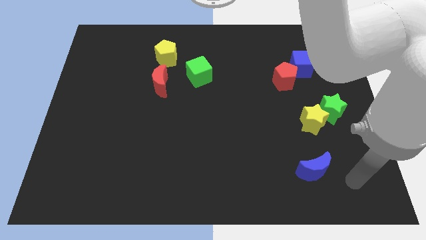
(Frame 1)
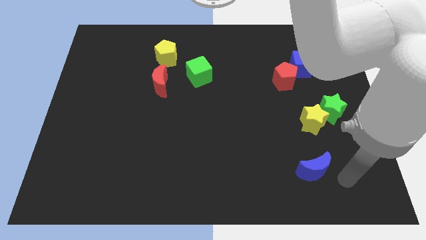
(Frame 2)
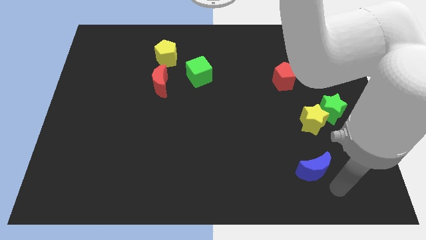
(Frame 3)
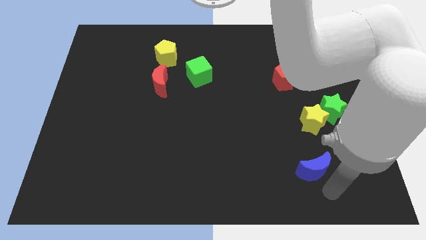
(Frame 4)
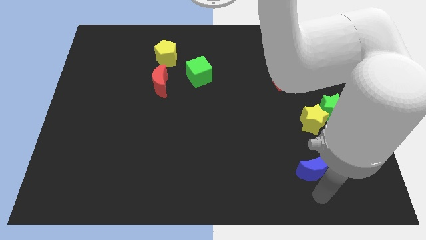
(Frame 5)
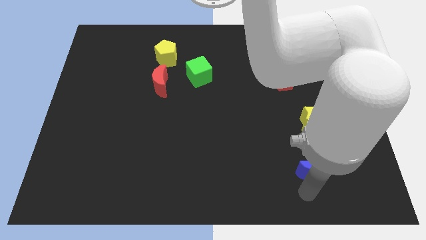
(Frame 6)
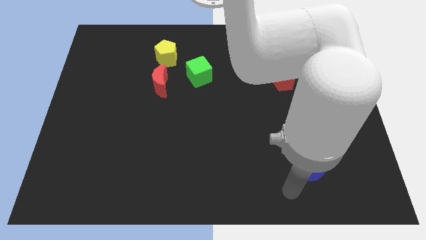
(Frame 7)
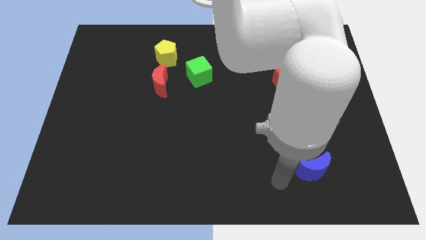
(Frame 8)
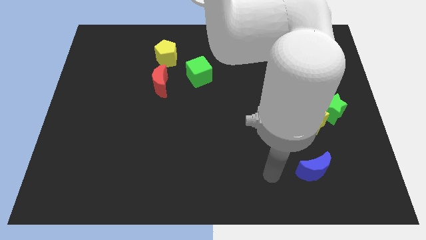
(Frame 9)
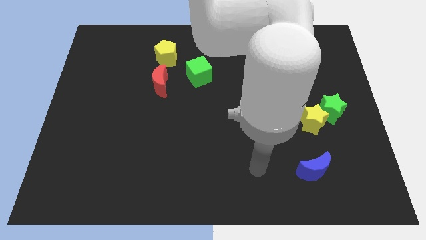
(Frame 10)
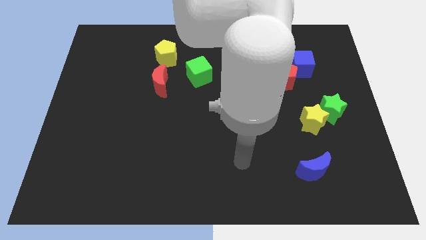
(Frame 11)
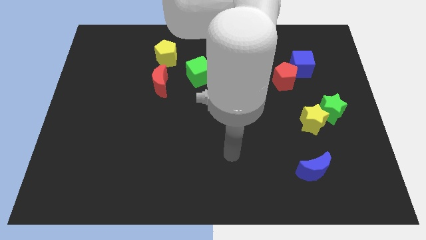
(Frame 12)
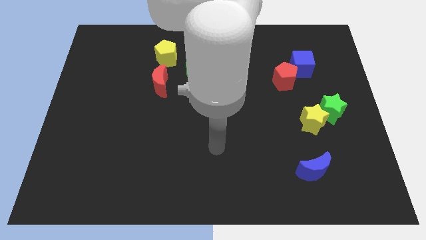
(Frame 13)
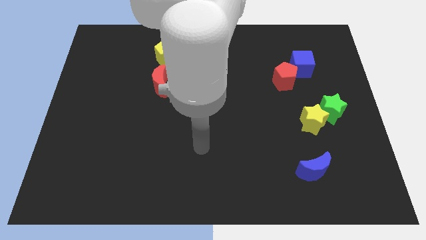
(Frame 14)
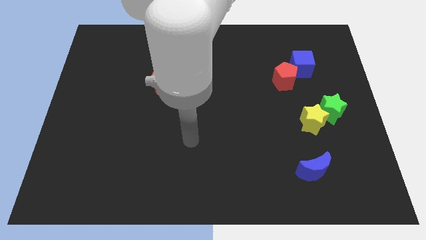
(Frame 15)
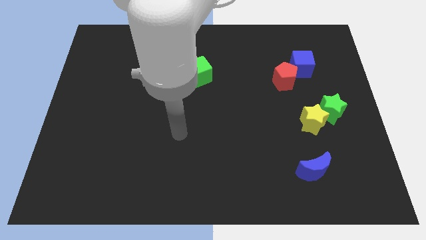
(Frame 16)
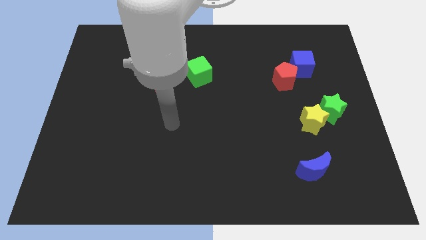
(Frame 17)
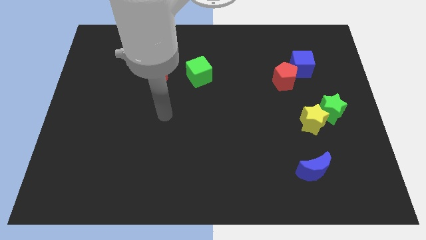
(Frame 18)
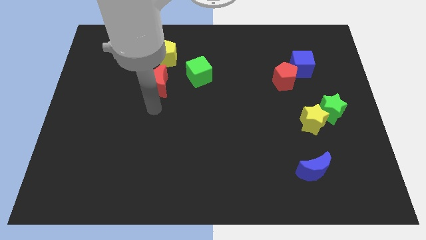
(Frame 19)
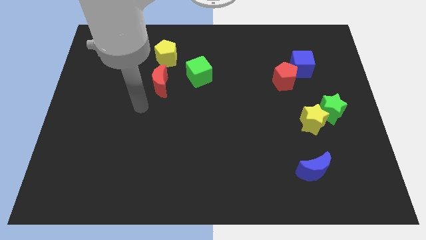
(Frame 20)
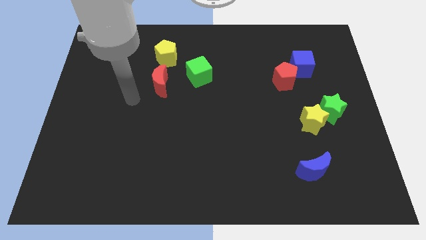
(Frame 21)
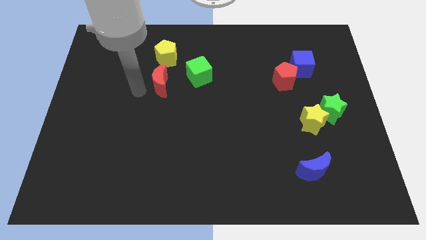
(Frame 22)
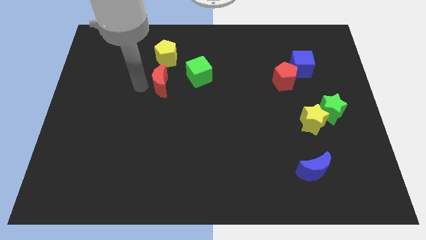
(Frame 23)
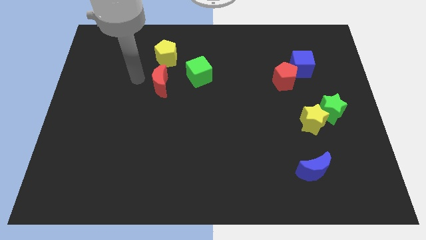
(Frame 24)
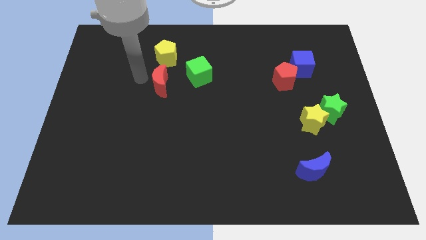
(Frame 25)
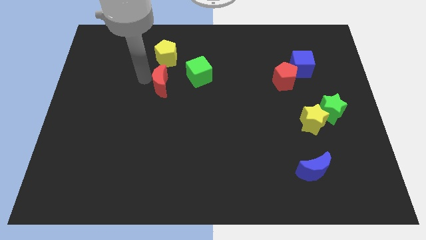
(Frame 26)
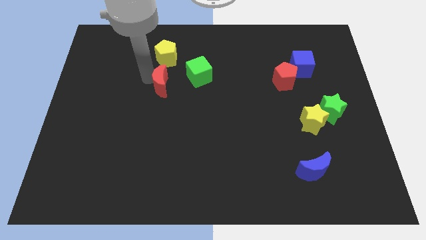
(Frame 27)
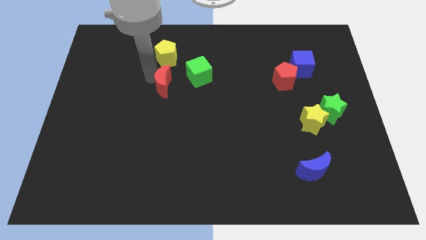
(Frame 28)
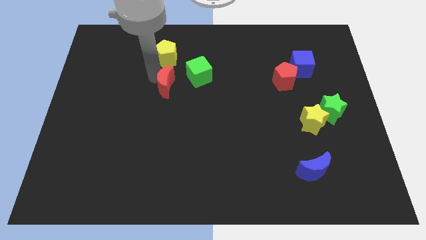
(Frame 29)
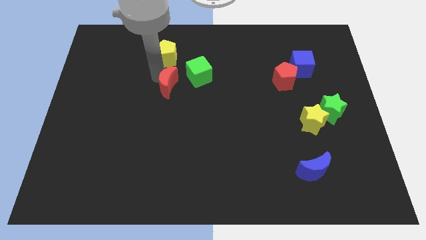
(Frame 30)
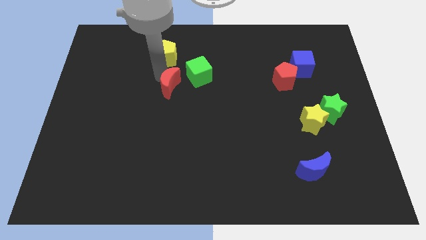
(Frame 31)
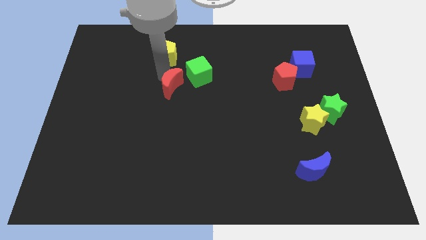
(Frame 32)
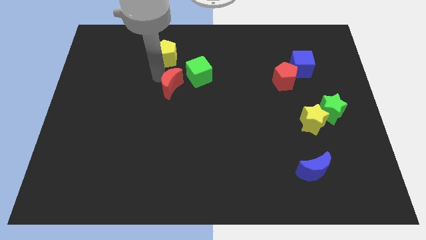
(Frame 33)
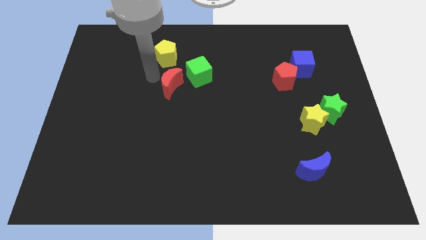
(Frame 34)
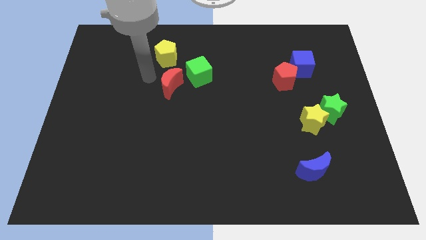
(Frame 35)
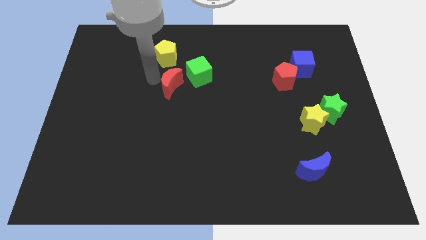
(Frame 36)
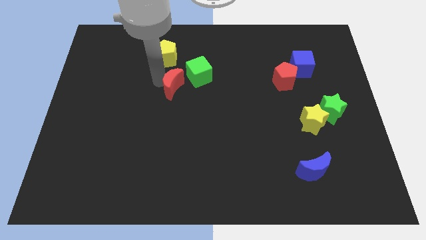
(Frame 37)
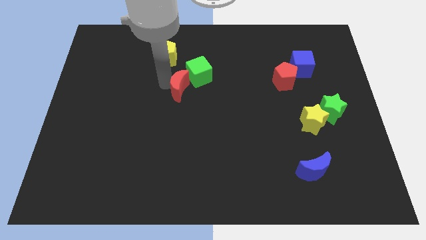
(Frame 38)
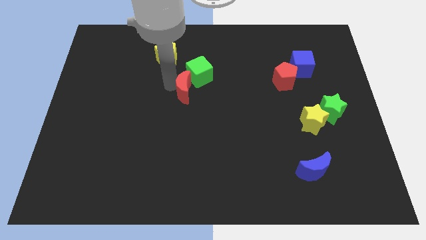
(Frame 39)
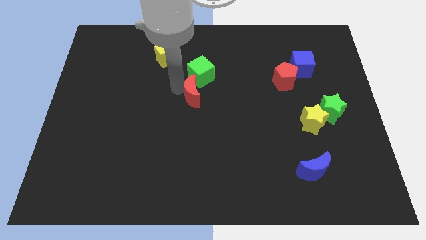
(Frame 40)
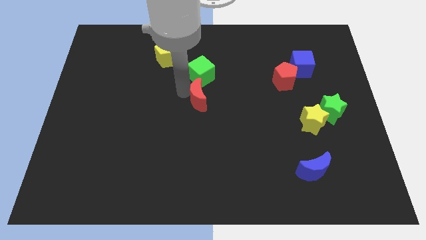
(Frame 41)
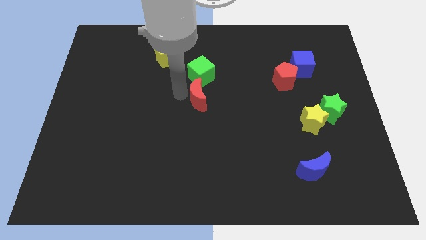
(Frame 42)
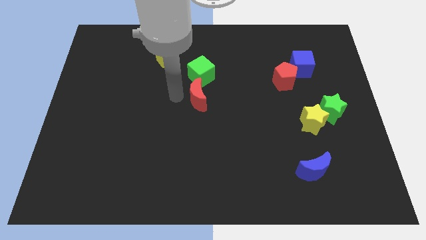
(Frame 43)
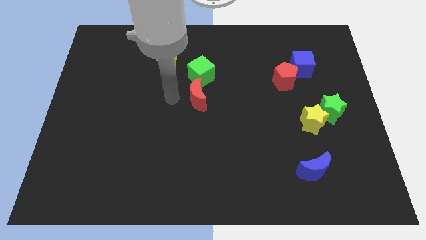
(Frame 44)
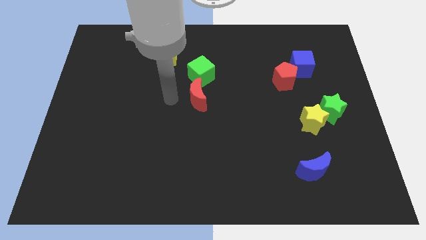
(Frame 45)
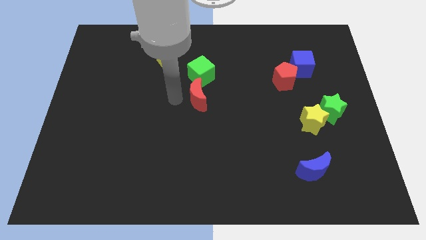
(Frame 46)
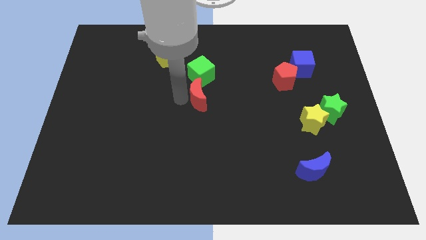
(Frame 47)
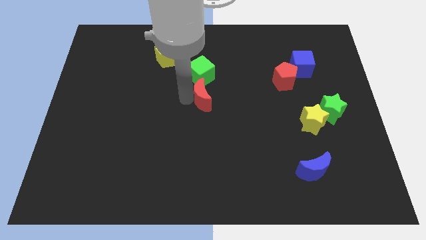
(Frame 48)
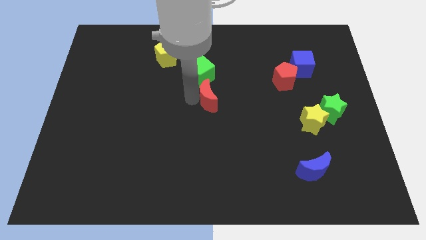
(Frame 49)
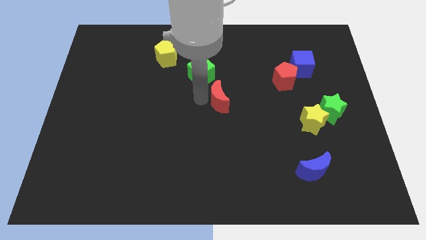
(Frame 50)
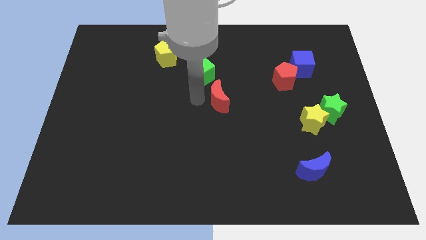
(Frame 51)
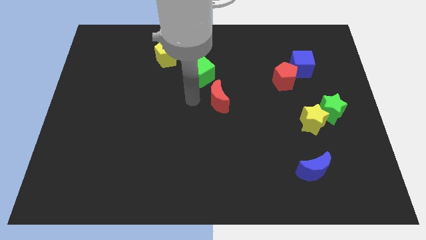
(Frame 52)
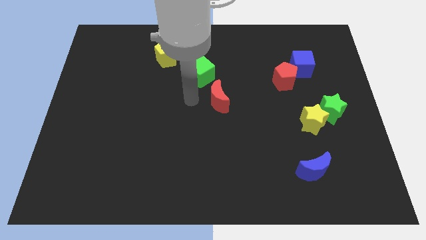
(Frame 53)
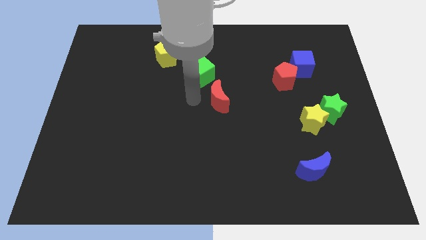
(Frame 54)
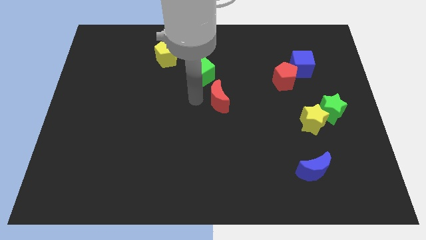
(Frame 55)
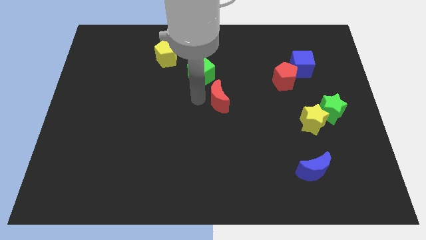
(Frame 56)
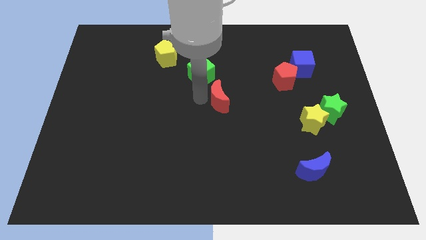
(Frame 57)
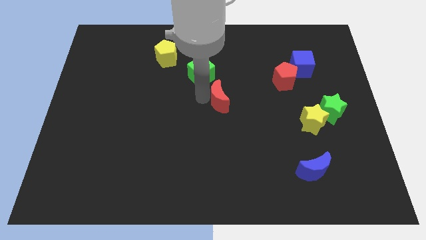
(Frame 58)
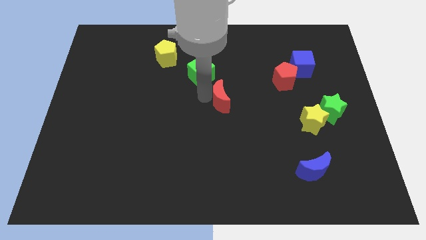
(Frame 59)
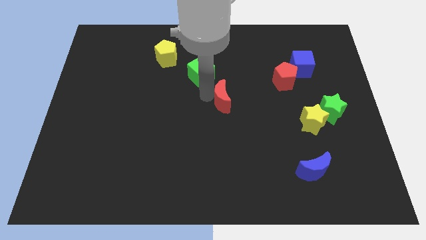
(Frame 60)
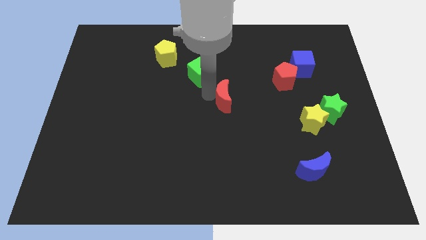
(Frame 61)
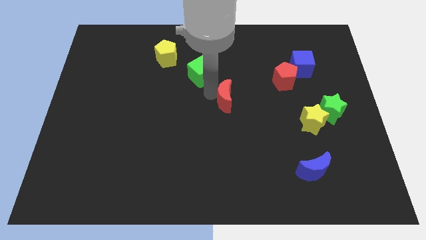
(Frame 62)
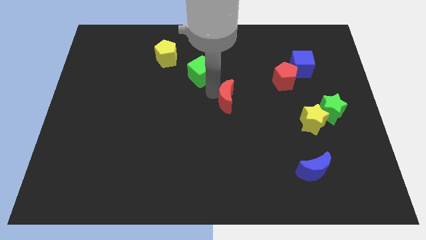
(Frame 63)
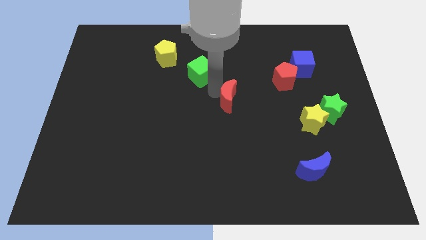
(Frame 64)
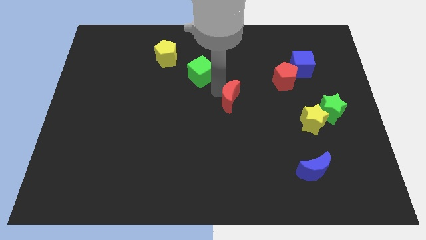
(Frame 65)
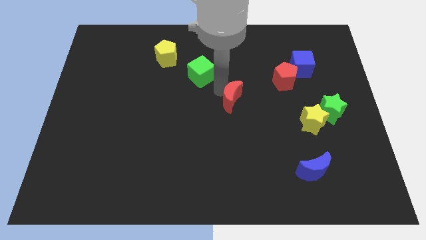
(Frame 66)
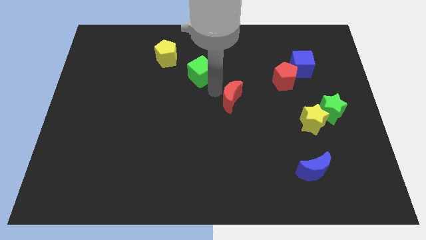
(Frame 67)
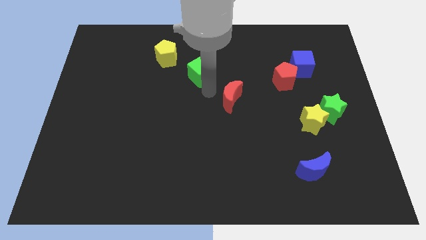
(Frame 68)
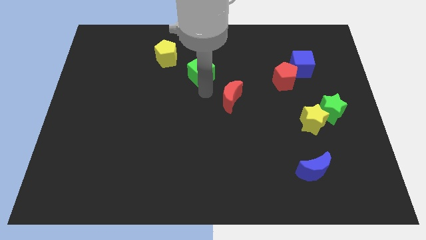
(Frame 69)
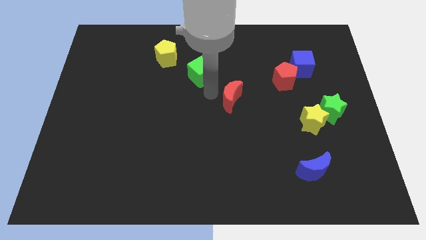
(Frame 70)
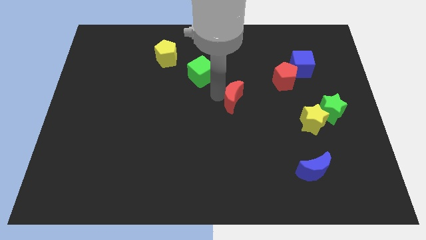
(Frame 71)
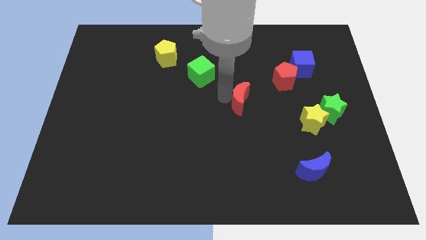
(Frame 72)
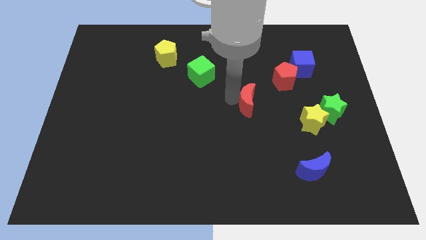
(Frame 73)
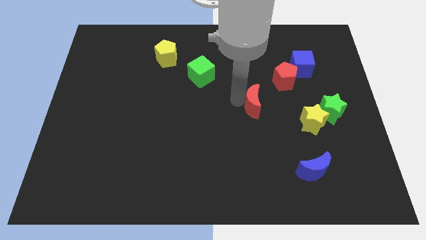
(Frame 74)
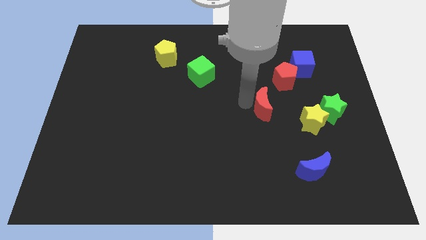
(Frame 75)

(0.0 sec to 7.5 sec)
slide the red moon to the left side of the green star

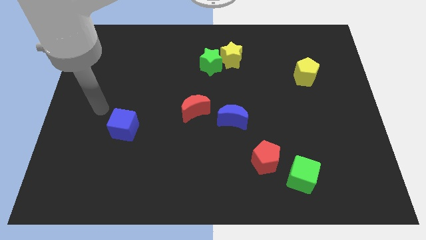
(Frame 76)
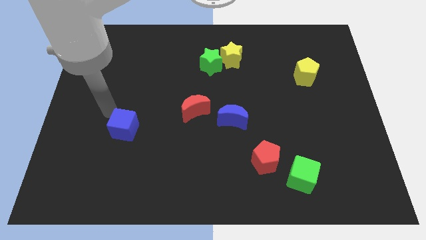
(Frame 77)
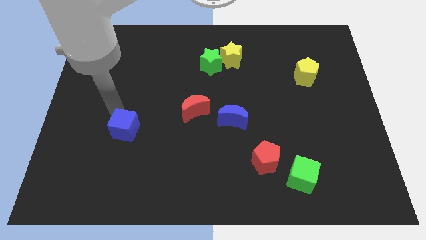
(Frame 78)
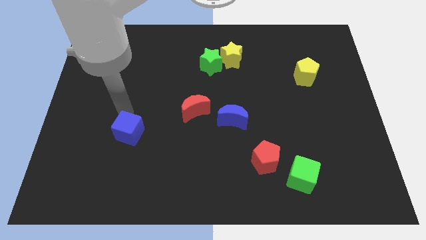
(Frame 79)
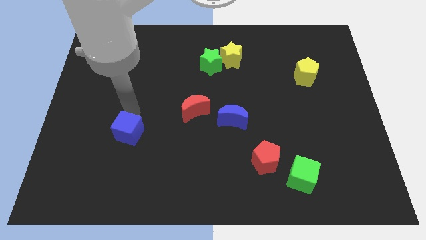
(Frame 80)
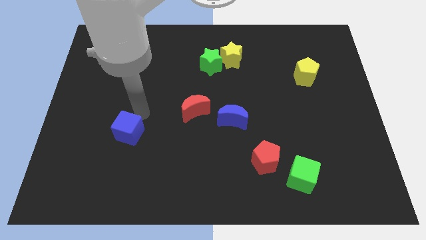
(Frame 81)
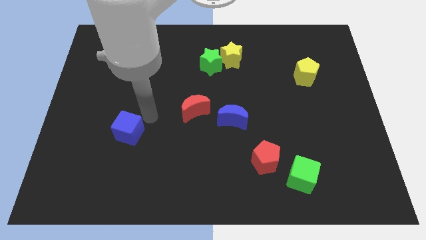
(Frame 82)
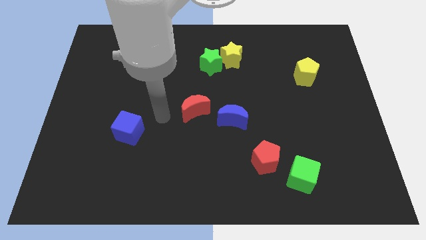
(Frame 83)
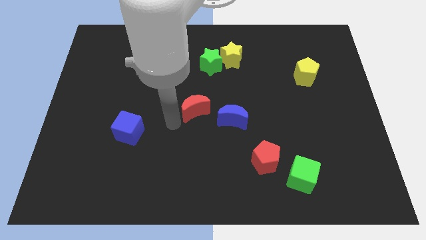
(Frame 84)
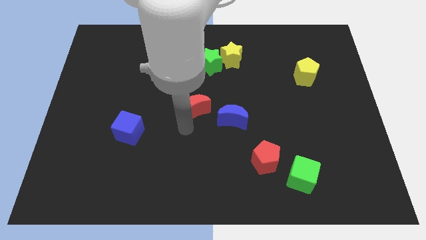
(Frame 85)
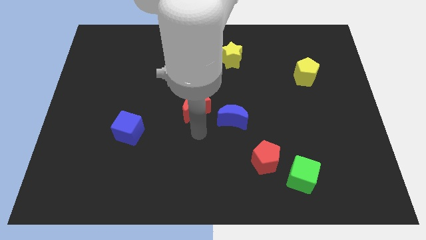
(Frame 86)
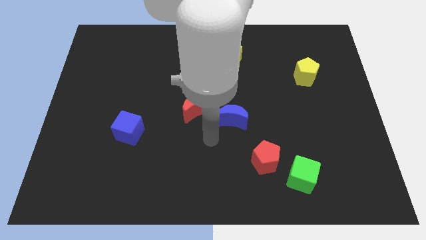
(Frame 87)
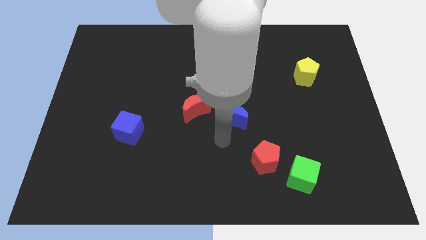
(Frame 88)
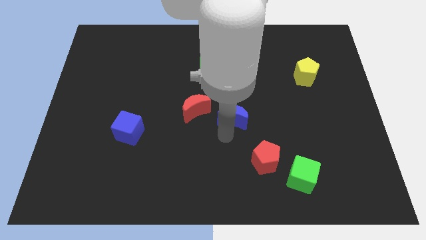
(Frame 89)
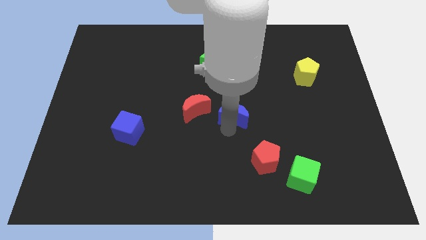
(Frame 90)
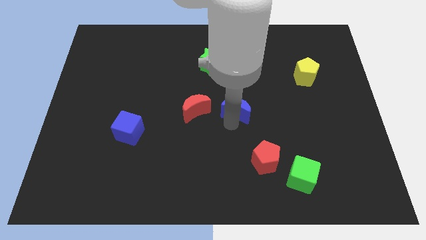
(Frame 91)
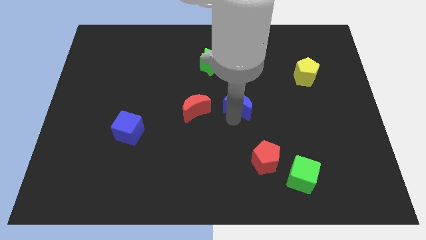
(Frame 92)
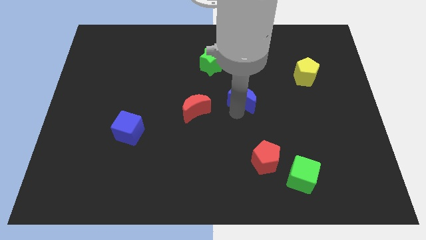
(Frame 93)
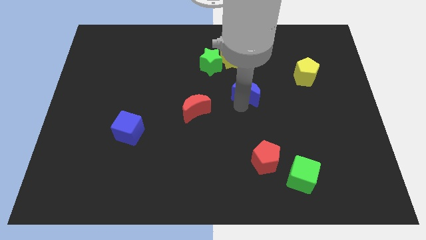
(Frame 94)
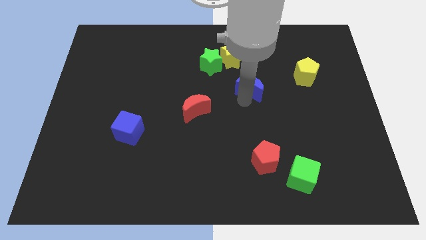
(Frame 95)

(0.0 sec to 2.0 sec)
push the blue moon to the bottom right side of the yellow star
